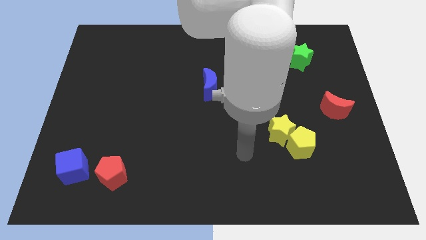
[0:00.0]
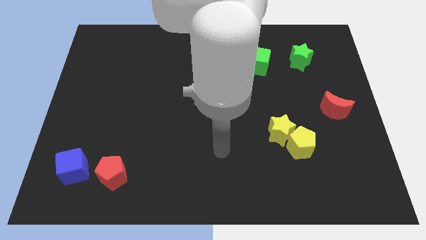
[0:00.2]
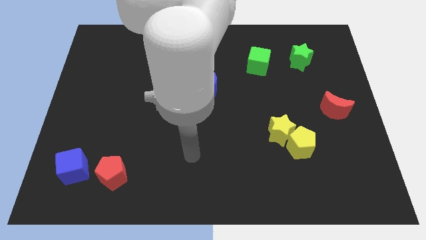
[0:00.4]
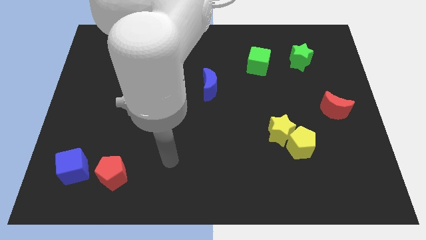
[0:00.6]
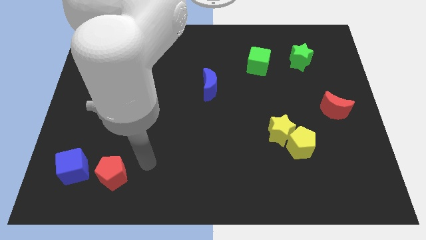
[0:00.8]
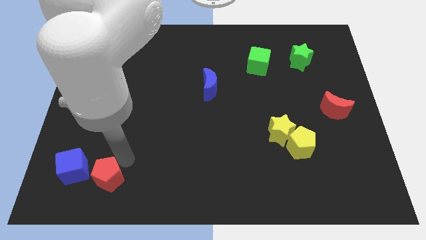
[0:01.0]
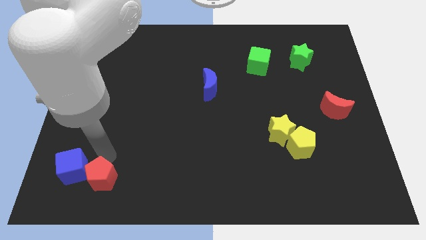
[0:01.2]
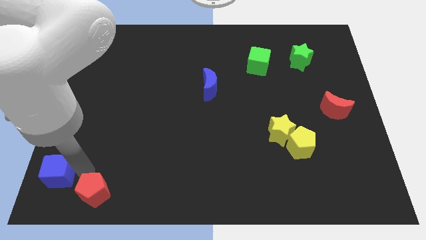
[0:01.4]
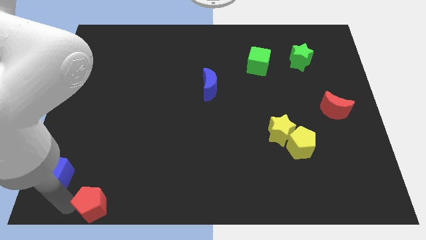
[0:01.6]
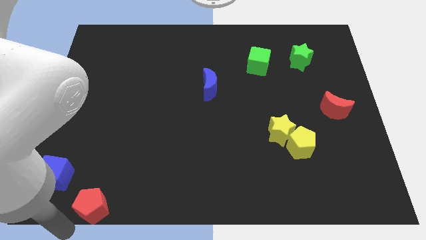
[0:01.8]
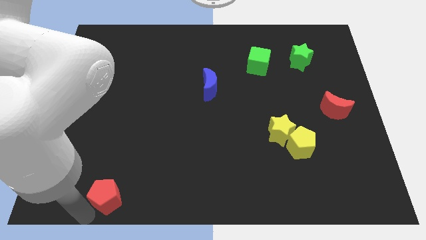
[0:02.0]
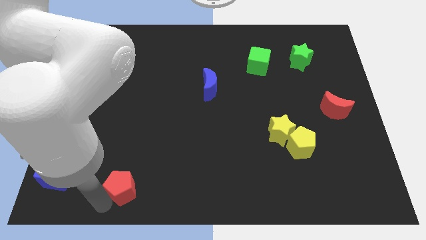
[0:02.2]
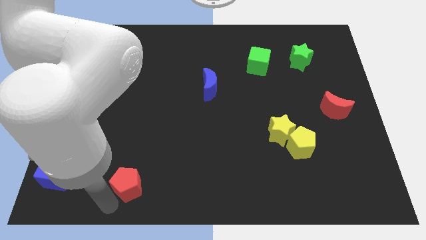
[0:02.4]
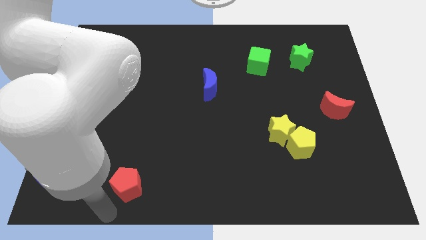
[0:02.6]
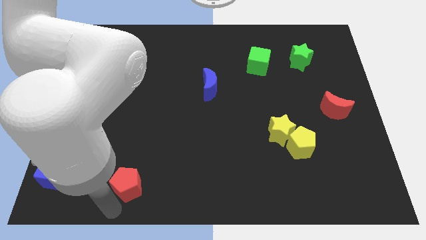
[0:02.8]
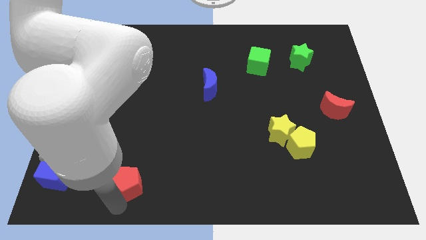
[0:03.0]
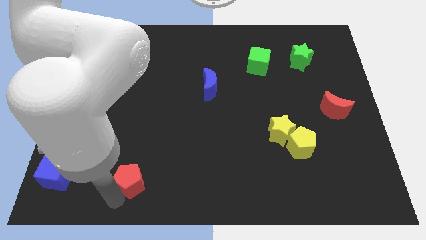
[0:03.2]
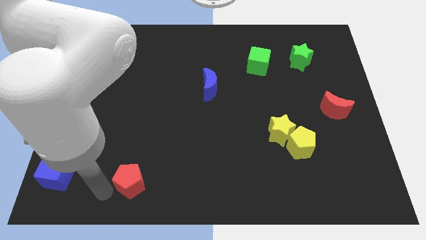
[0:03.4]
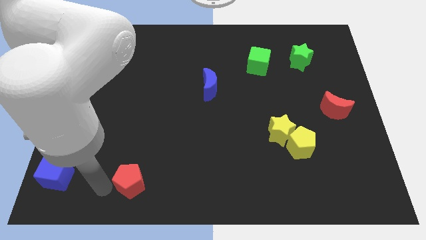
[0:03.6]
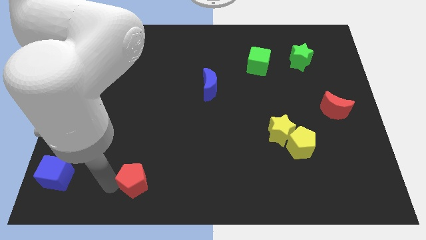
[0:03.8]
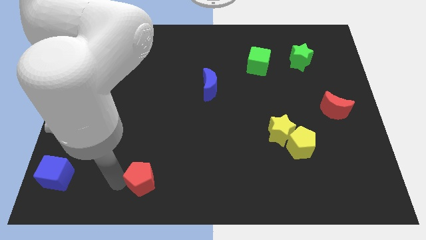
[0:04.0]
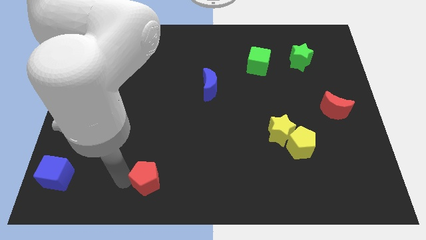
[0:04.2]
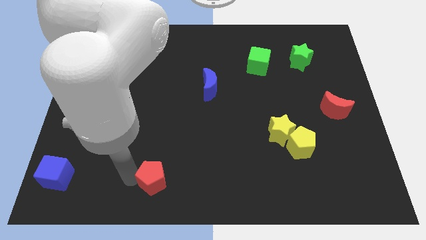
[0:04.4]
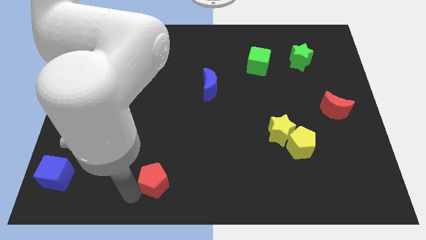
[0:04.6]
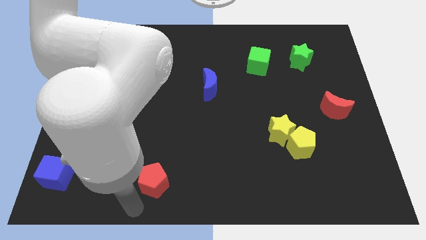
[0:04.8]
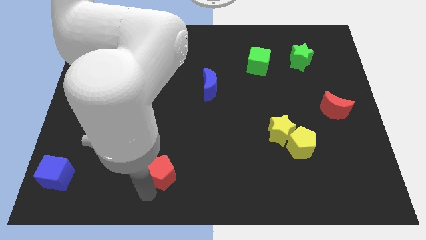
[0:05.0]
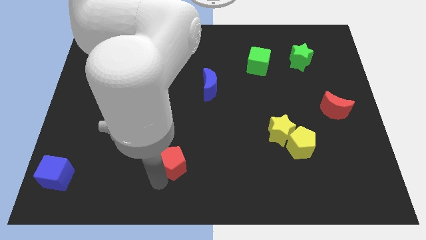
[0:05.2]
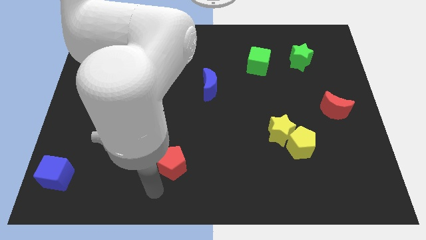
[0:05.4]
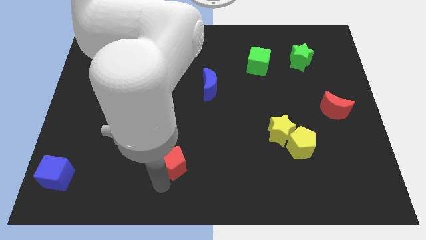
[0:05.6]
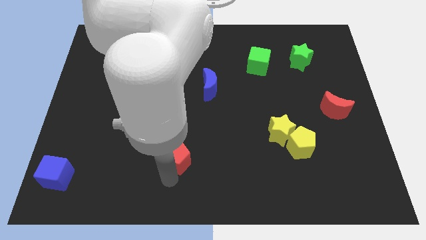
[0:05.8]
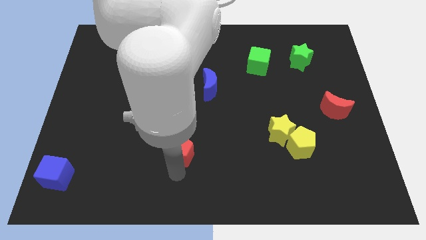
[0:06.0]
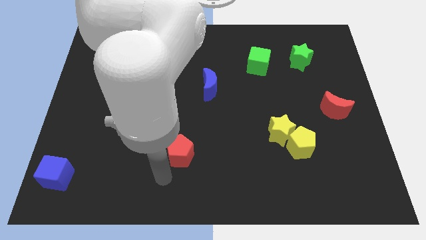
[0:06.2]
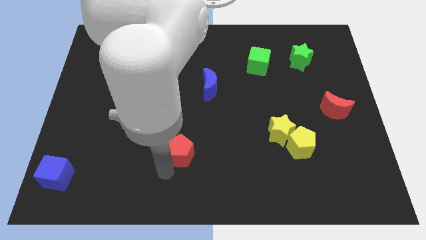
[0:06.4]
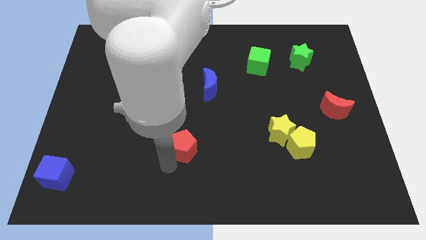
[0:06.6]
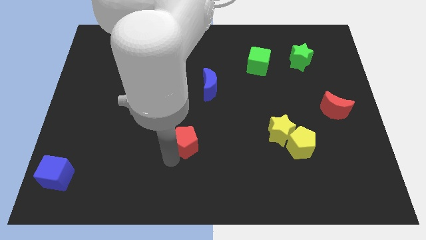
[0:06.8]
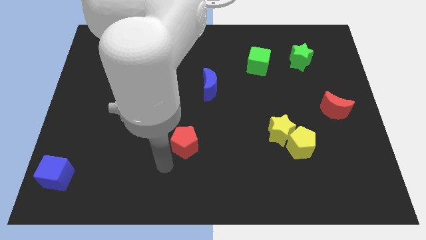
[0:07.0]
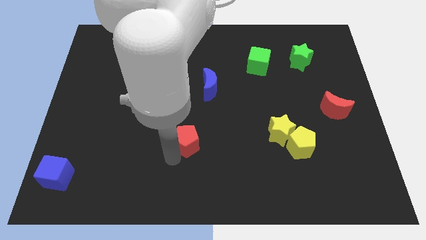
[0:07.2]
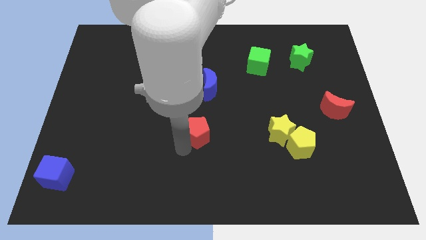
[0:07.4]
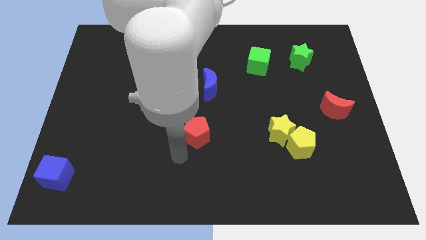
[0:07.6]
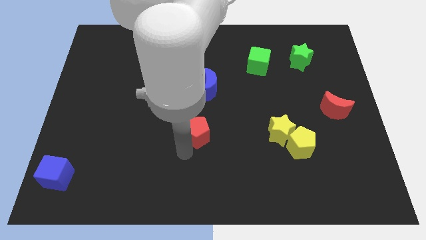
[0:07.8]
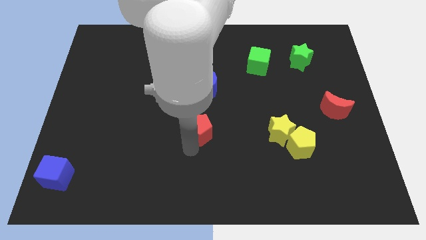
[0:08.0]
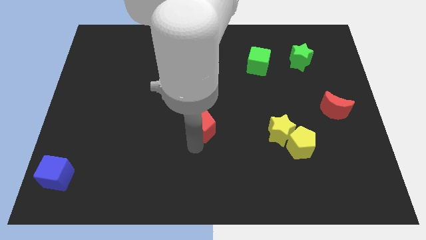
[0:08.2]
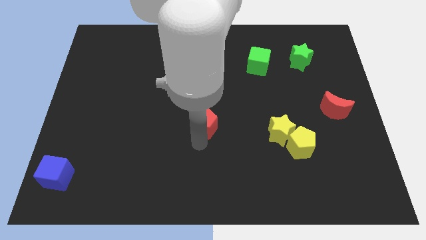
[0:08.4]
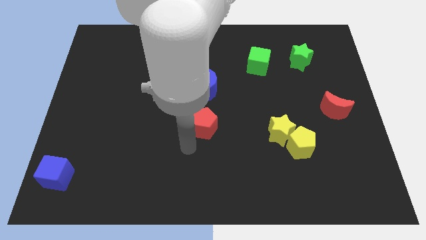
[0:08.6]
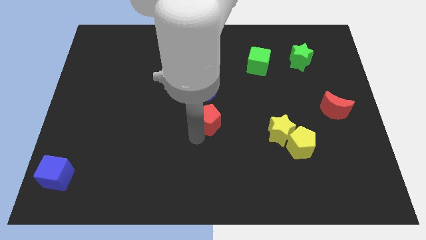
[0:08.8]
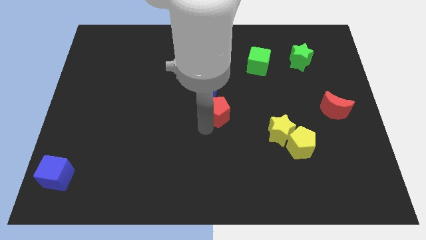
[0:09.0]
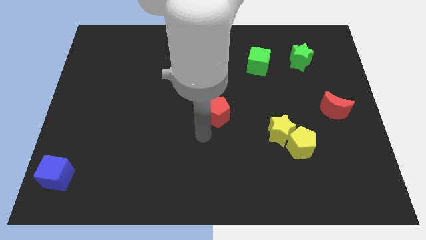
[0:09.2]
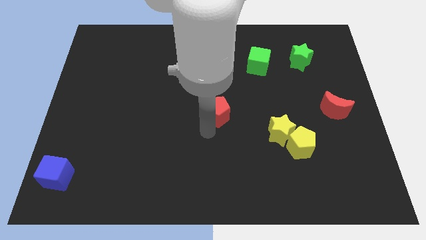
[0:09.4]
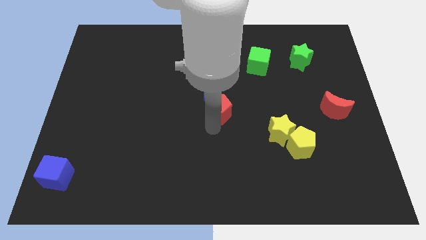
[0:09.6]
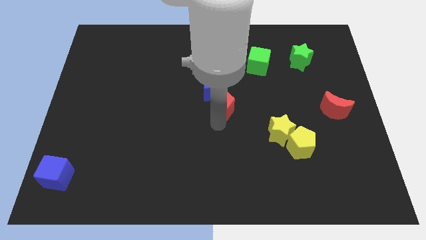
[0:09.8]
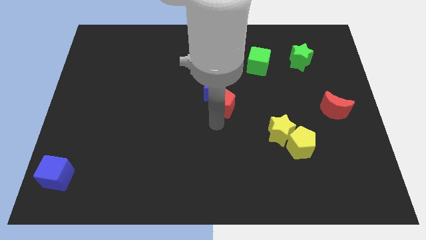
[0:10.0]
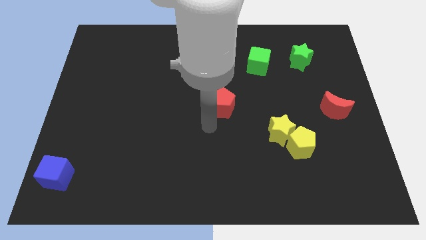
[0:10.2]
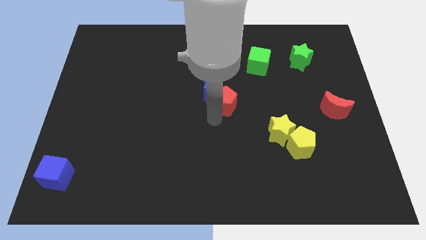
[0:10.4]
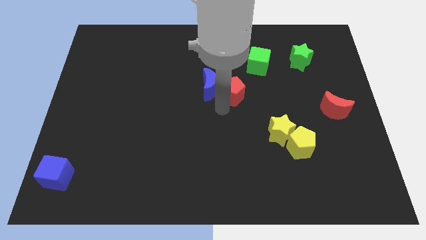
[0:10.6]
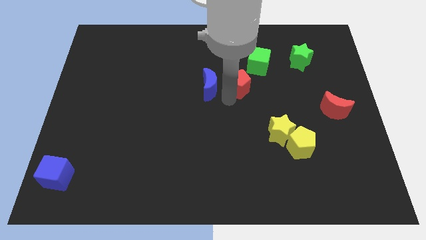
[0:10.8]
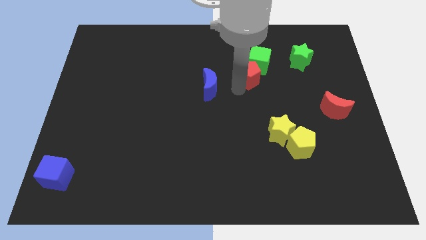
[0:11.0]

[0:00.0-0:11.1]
move the red pentagon to the green cube

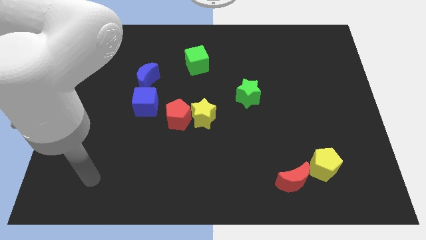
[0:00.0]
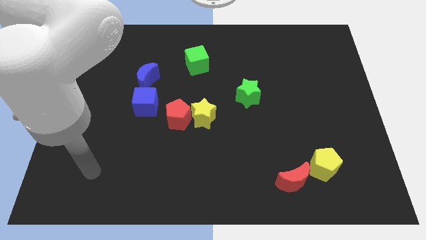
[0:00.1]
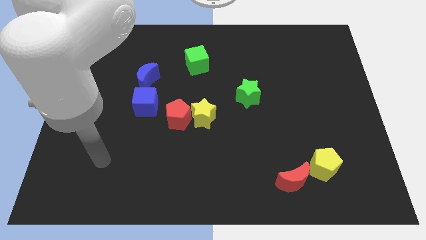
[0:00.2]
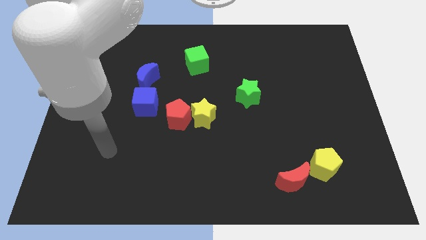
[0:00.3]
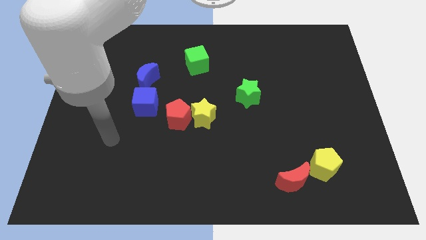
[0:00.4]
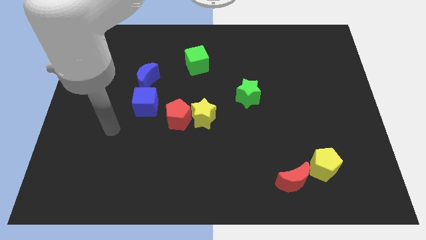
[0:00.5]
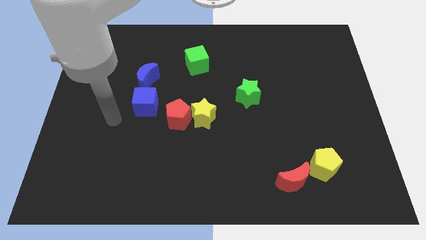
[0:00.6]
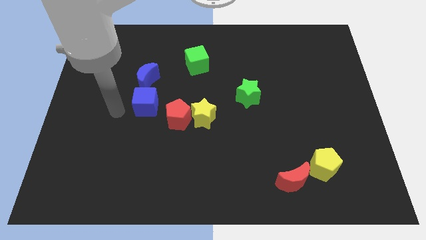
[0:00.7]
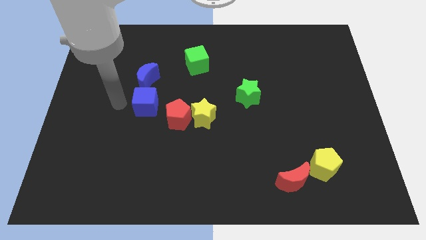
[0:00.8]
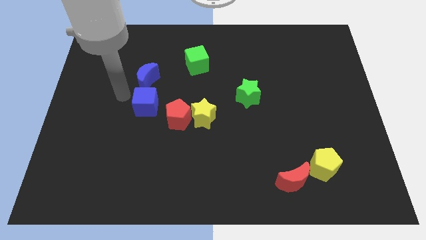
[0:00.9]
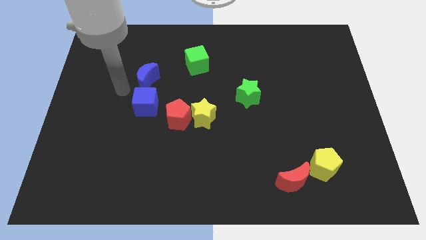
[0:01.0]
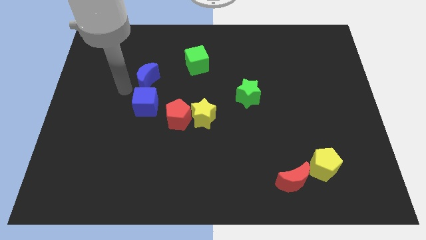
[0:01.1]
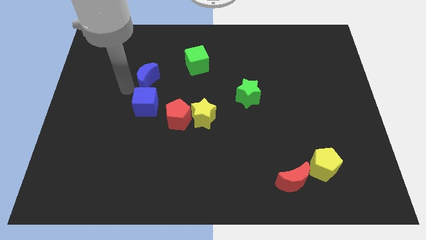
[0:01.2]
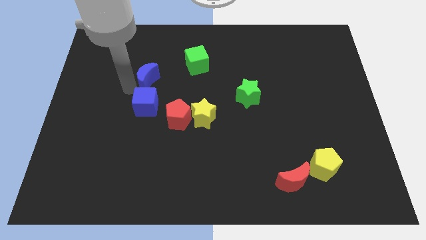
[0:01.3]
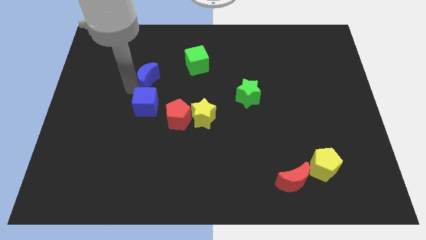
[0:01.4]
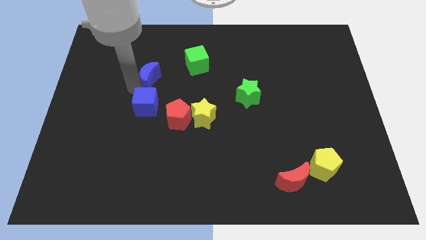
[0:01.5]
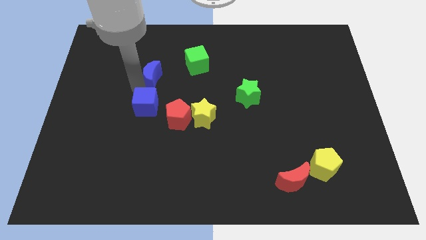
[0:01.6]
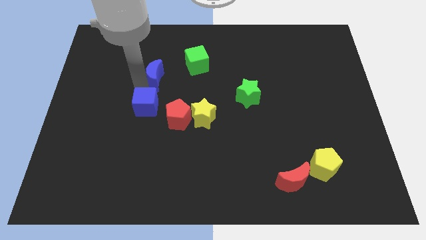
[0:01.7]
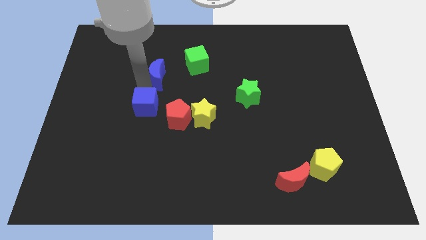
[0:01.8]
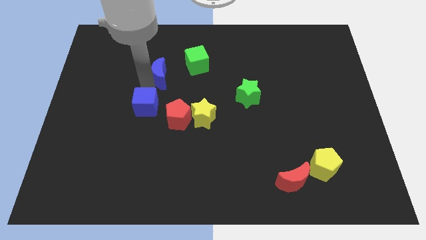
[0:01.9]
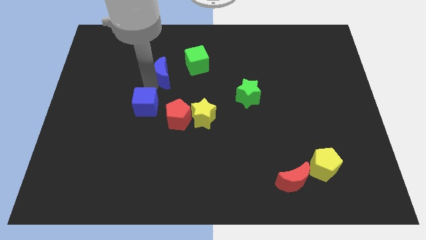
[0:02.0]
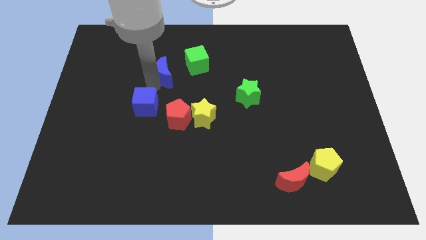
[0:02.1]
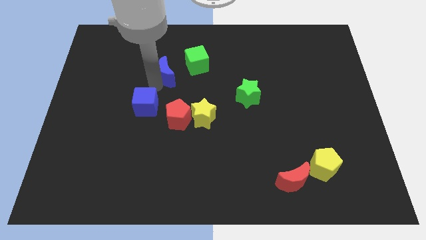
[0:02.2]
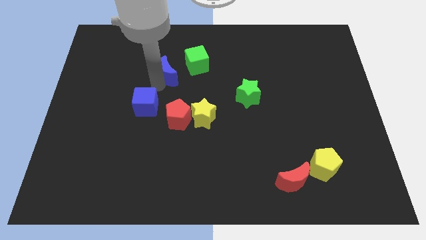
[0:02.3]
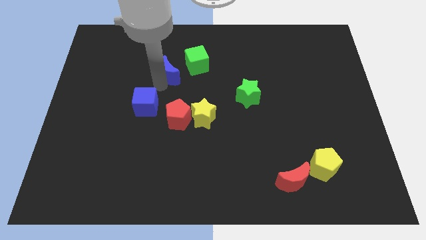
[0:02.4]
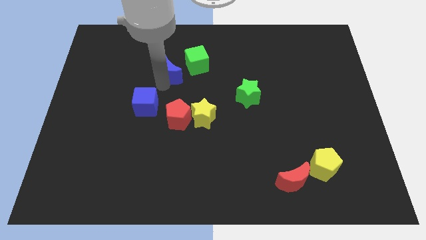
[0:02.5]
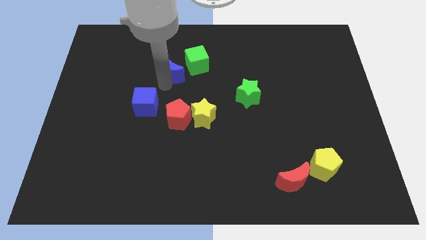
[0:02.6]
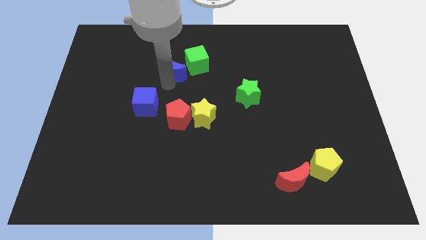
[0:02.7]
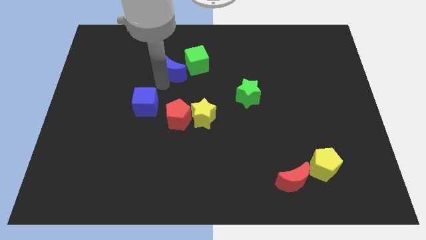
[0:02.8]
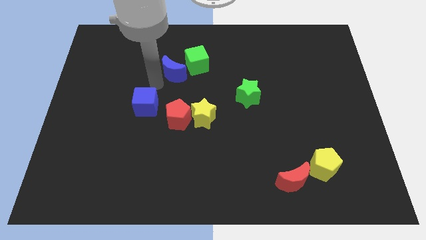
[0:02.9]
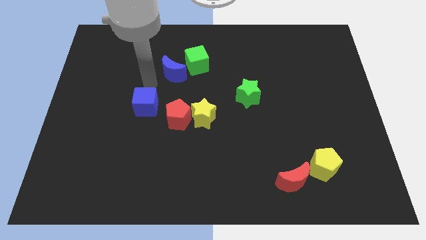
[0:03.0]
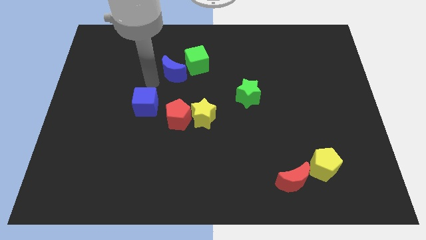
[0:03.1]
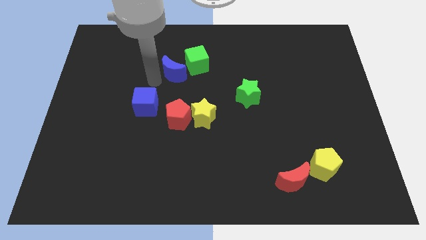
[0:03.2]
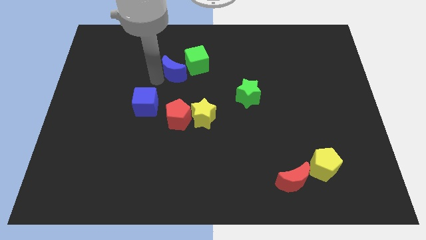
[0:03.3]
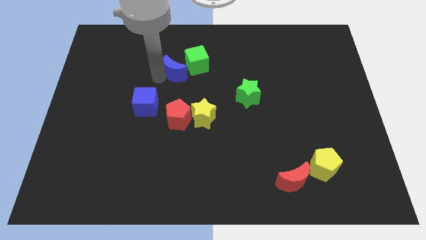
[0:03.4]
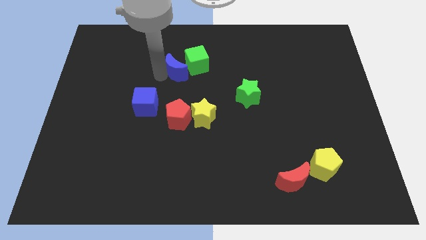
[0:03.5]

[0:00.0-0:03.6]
push the blue moon next to the green cube
